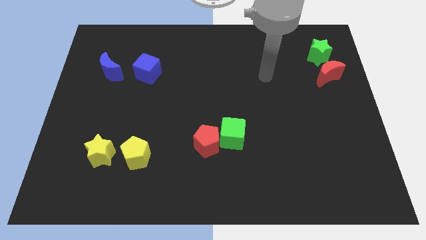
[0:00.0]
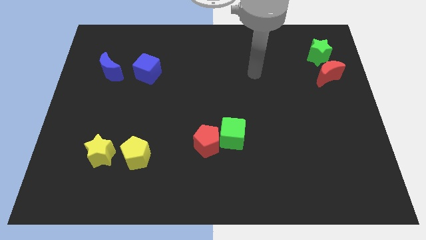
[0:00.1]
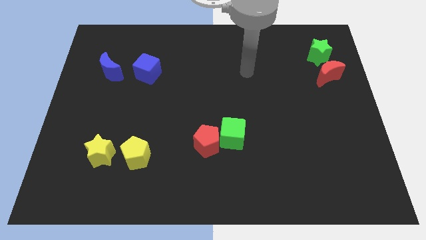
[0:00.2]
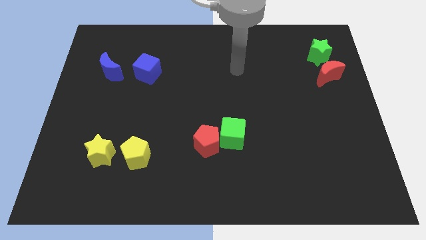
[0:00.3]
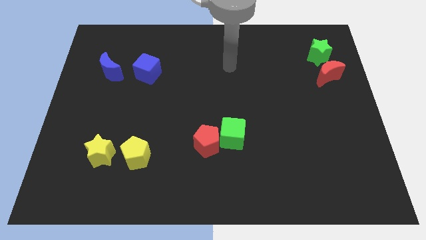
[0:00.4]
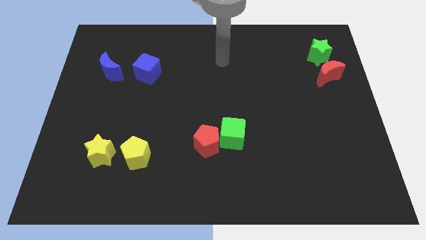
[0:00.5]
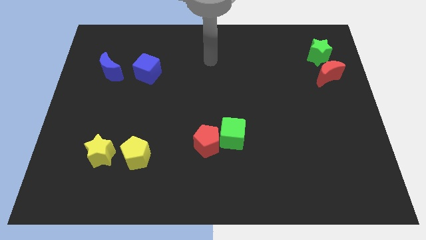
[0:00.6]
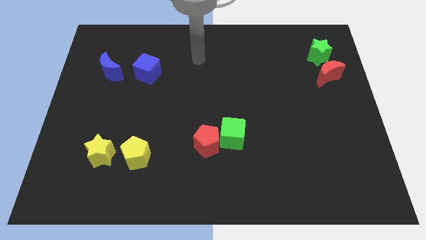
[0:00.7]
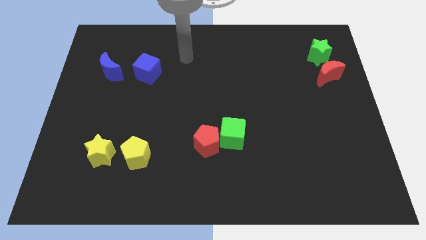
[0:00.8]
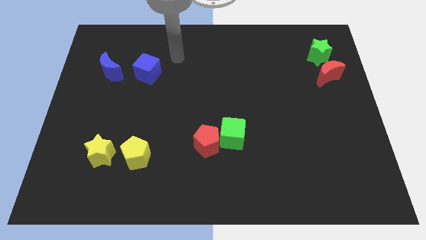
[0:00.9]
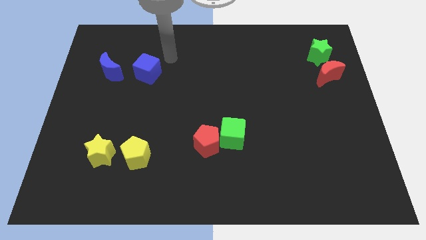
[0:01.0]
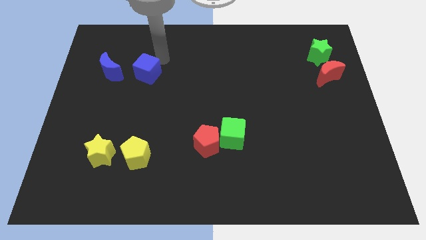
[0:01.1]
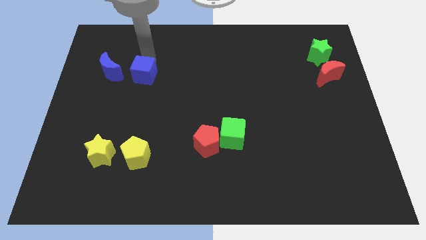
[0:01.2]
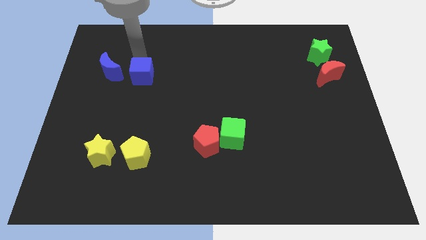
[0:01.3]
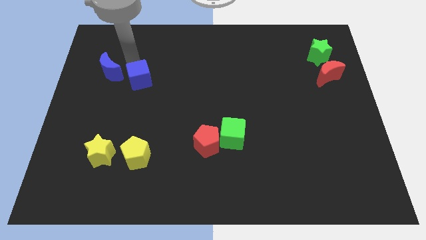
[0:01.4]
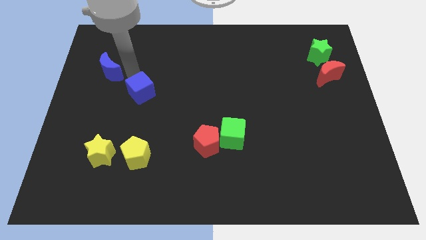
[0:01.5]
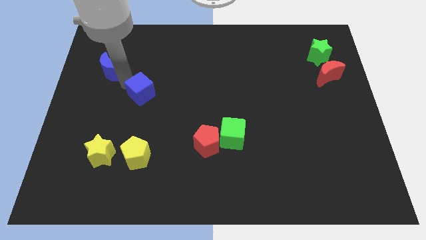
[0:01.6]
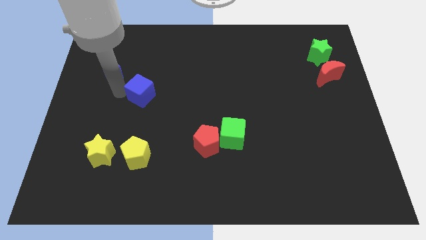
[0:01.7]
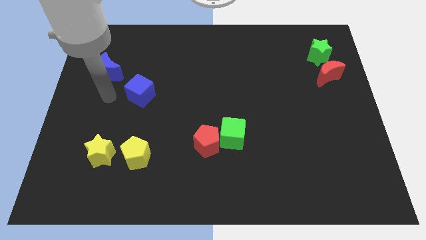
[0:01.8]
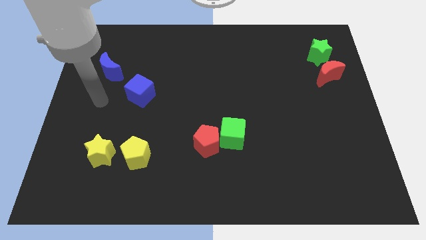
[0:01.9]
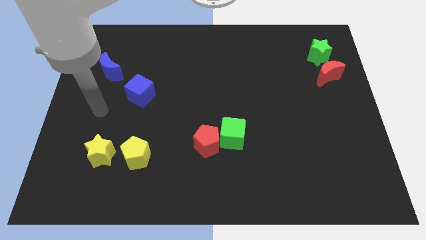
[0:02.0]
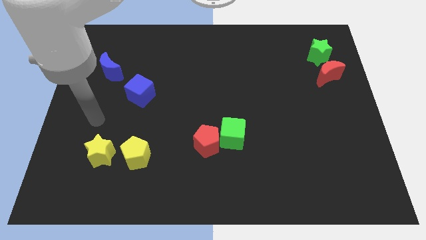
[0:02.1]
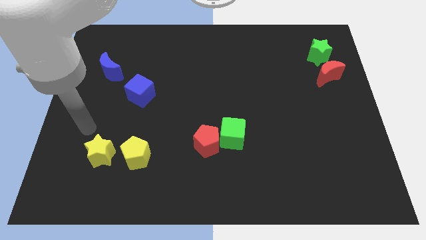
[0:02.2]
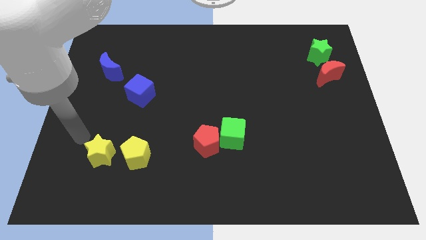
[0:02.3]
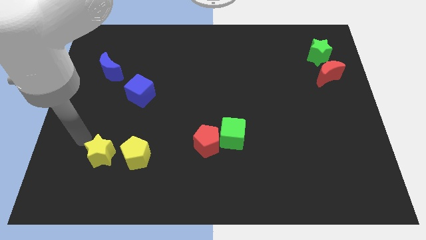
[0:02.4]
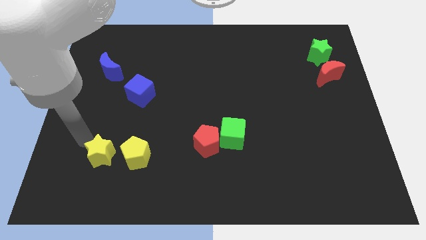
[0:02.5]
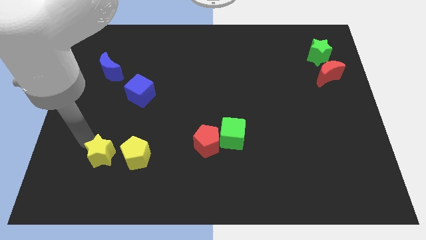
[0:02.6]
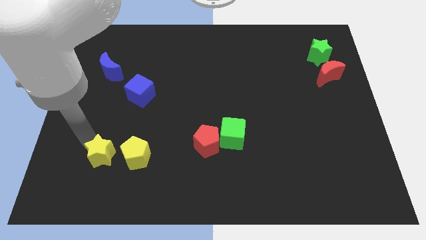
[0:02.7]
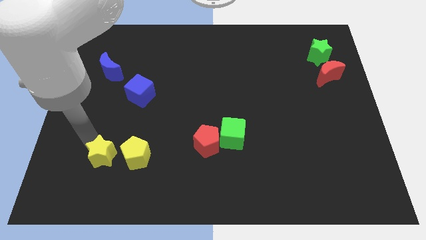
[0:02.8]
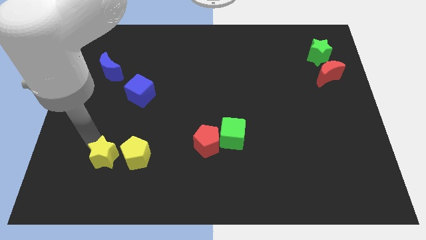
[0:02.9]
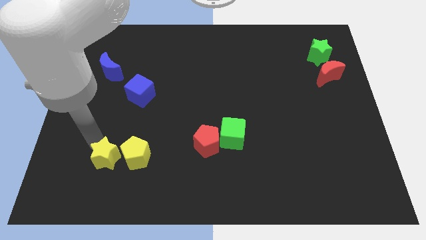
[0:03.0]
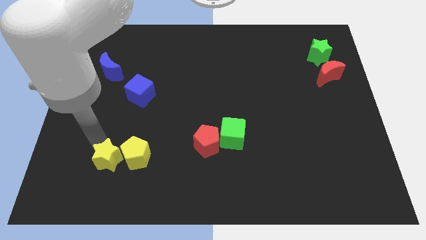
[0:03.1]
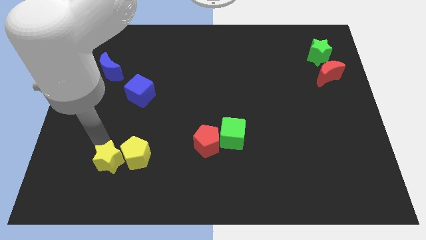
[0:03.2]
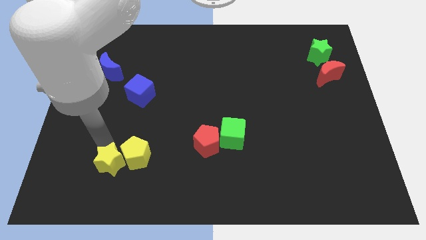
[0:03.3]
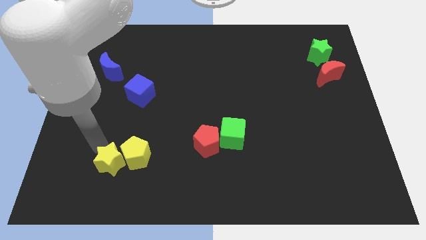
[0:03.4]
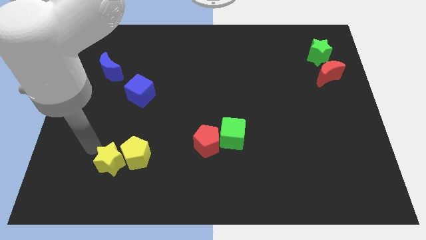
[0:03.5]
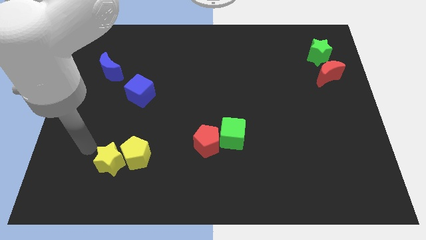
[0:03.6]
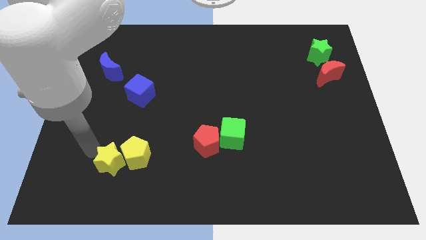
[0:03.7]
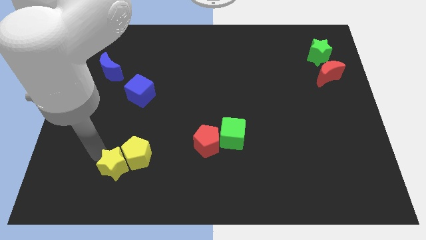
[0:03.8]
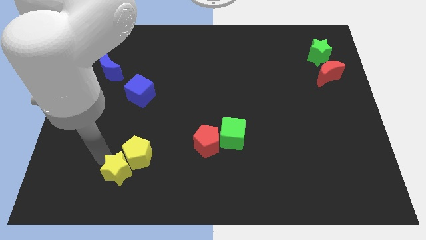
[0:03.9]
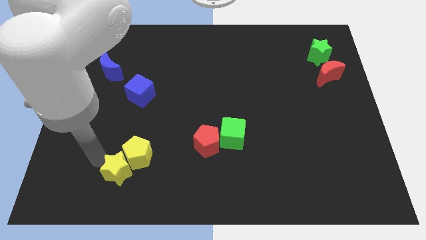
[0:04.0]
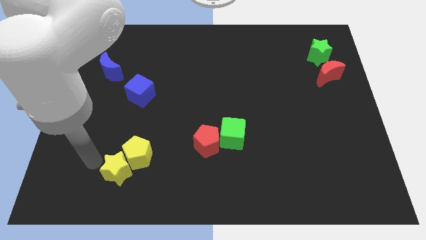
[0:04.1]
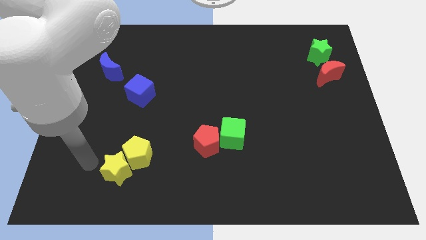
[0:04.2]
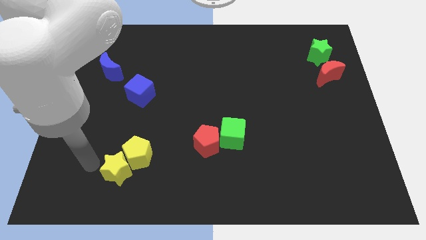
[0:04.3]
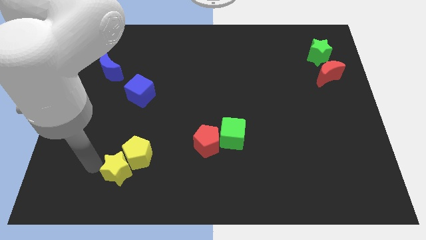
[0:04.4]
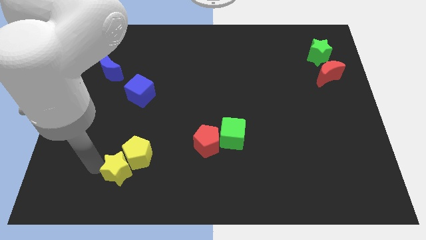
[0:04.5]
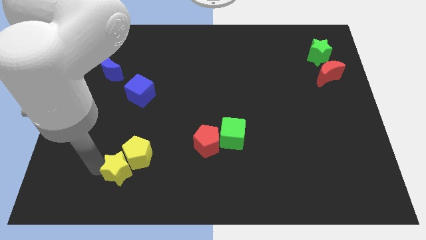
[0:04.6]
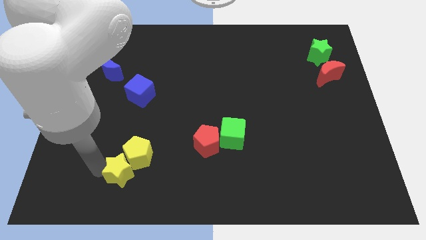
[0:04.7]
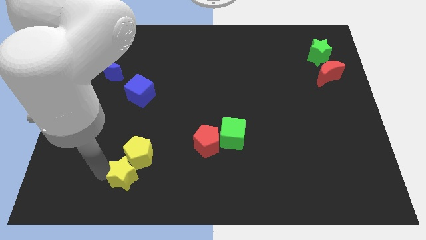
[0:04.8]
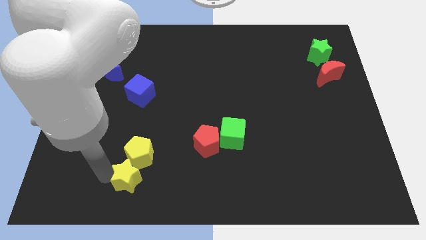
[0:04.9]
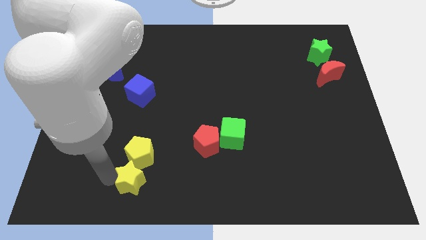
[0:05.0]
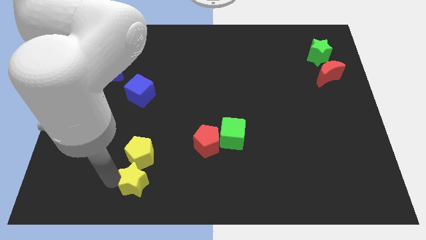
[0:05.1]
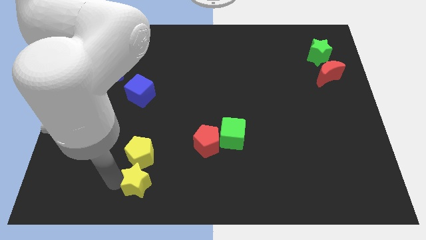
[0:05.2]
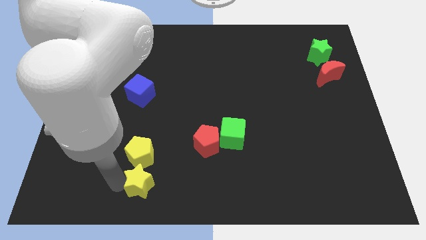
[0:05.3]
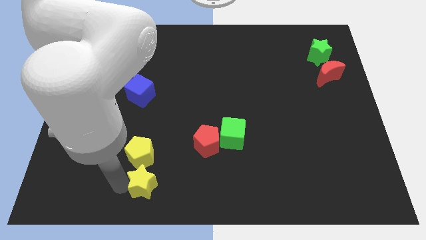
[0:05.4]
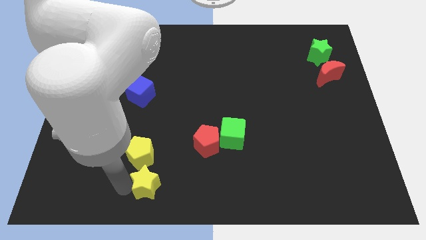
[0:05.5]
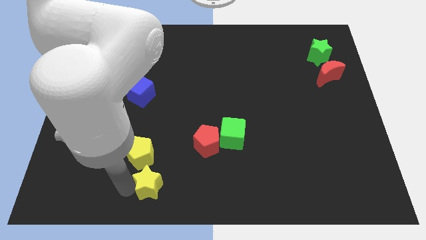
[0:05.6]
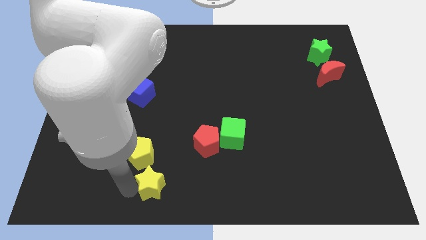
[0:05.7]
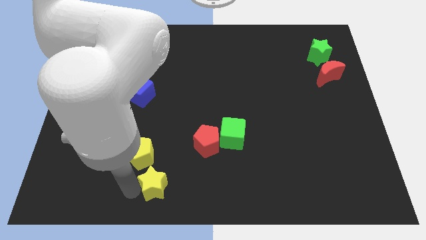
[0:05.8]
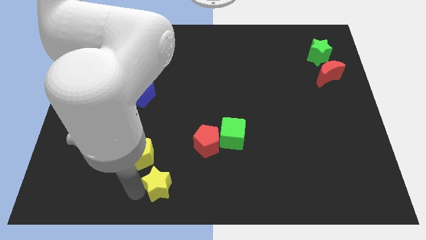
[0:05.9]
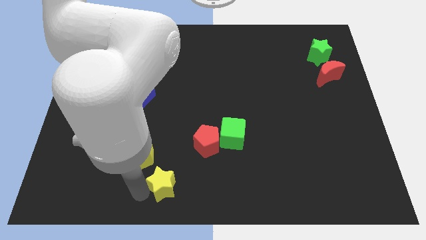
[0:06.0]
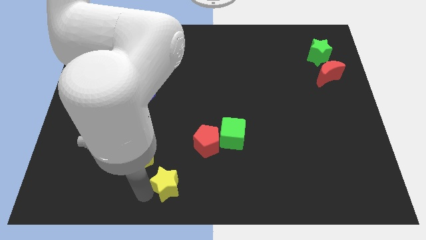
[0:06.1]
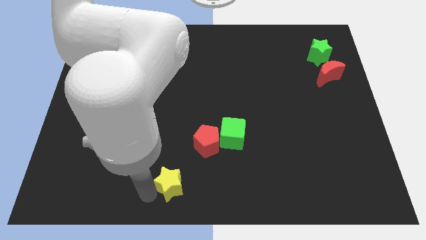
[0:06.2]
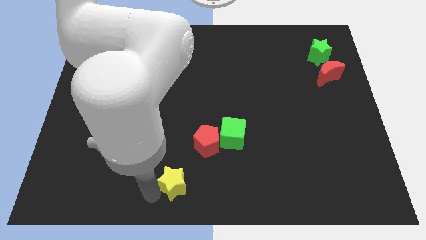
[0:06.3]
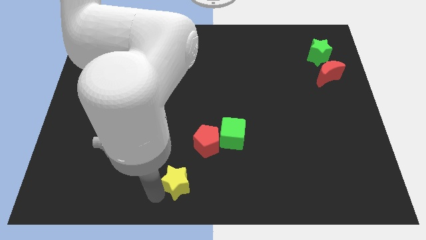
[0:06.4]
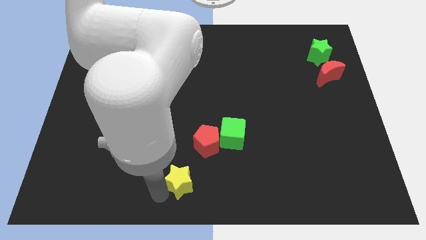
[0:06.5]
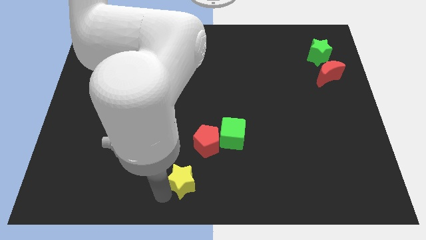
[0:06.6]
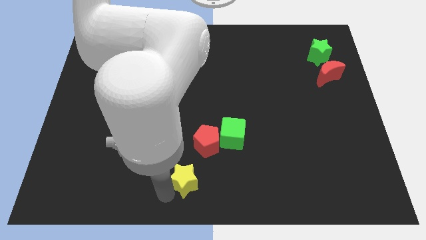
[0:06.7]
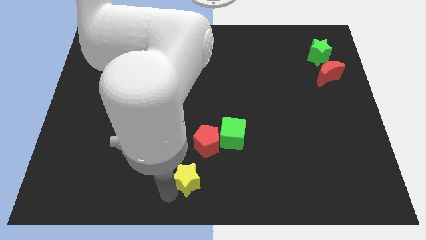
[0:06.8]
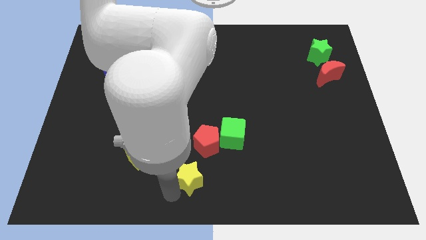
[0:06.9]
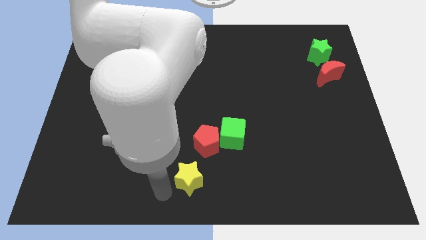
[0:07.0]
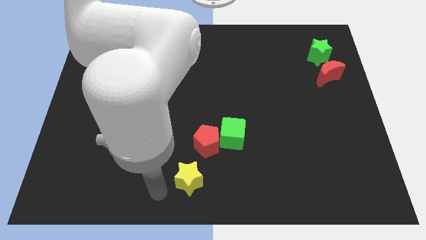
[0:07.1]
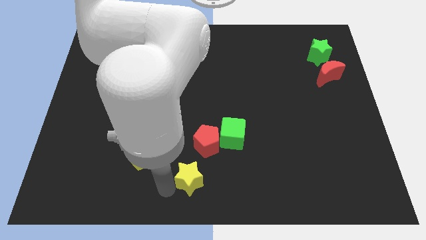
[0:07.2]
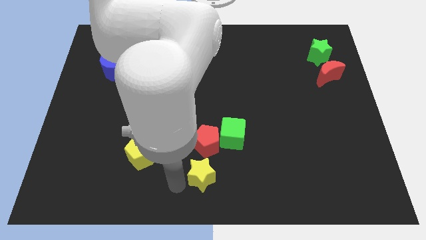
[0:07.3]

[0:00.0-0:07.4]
slide the yellow star right

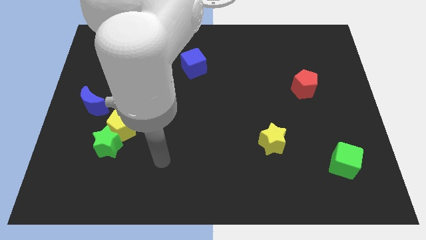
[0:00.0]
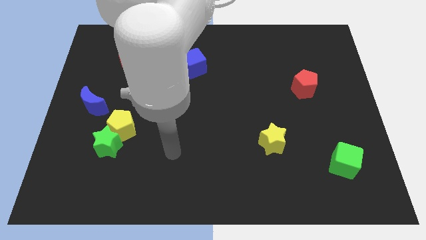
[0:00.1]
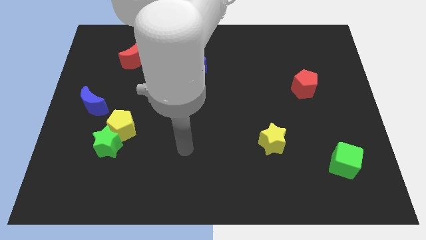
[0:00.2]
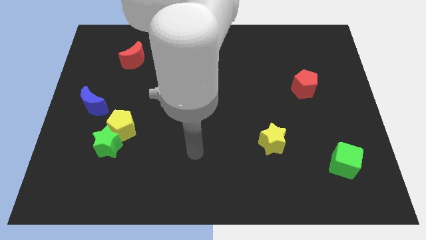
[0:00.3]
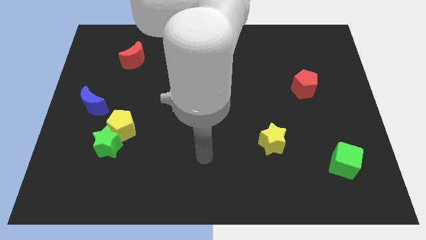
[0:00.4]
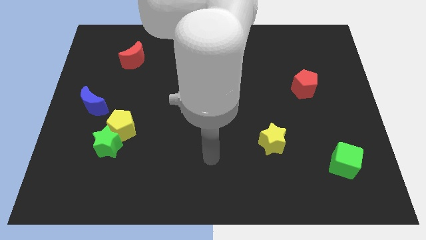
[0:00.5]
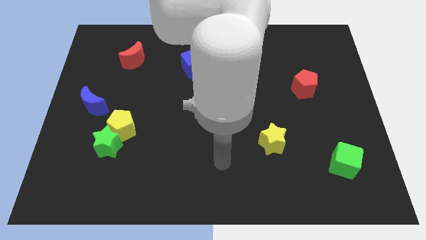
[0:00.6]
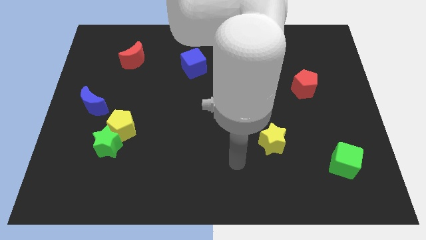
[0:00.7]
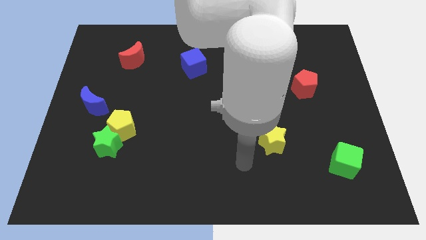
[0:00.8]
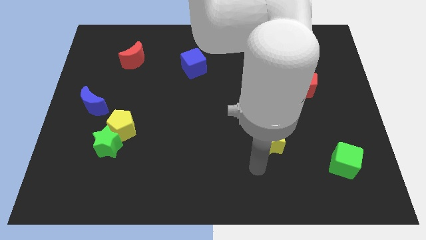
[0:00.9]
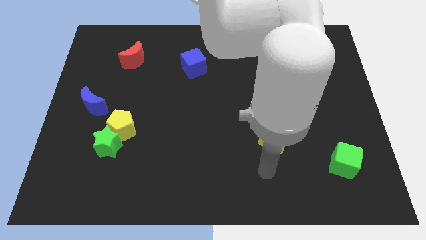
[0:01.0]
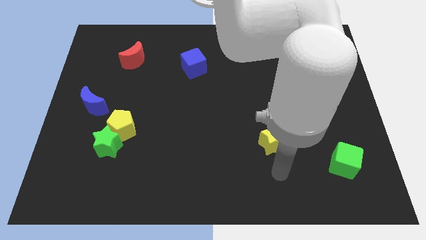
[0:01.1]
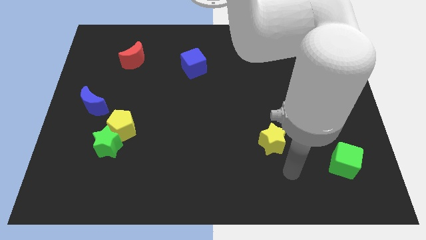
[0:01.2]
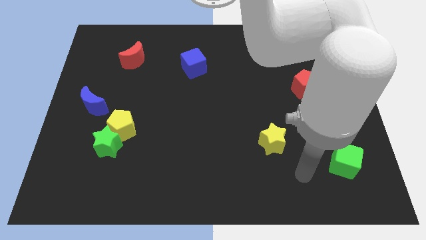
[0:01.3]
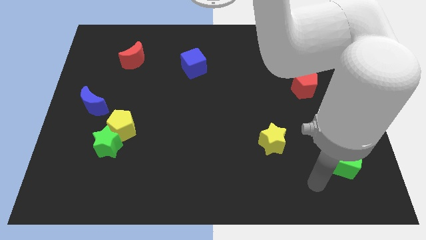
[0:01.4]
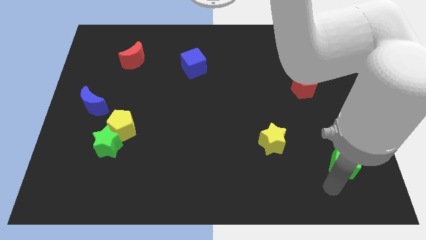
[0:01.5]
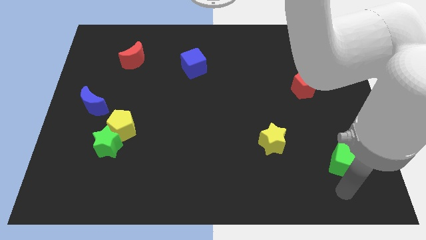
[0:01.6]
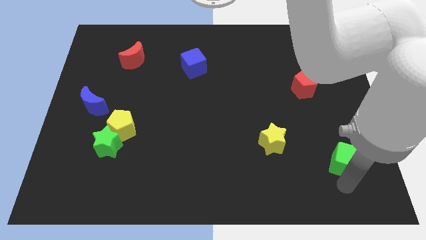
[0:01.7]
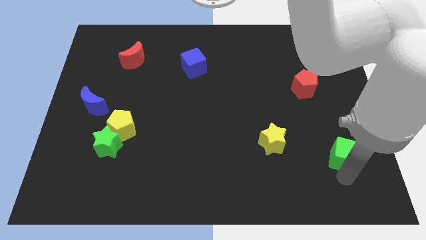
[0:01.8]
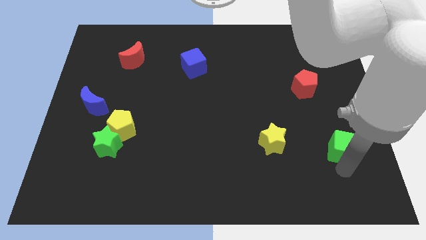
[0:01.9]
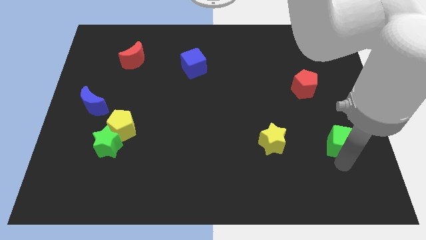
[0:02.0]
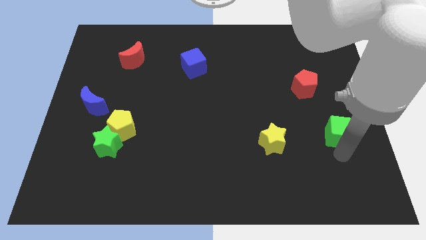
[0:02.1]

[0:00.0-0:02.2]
move the green cube somewhat up
